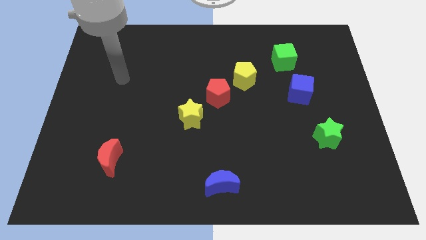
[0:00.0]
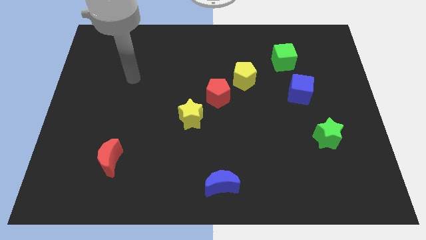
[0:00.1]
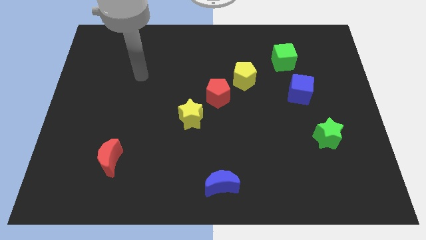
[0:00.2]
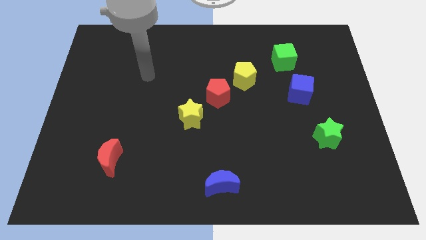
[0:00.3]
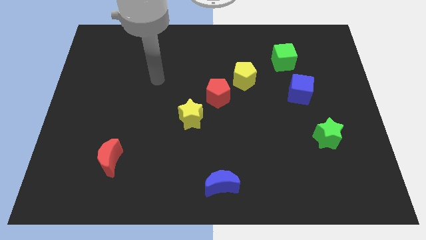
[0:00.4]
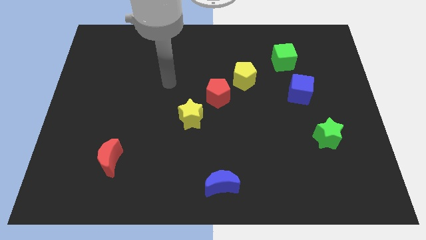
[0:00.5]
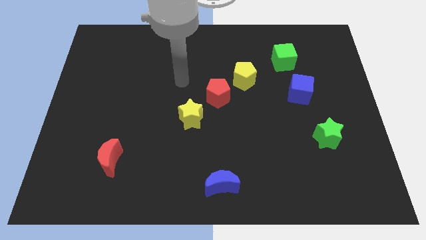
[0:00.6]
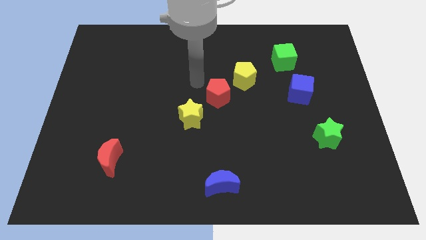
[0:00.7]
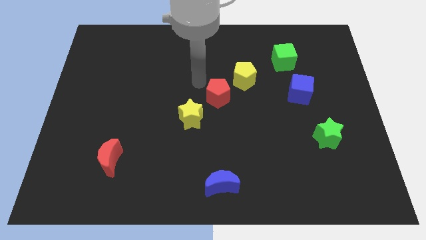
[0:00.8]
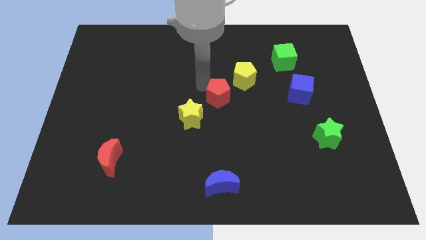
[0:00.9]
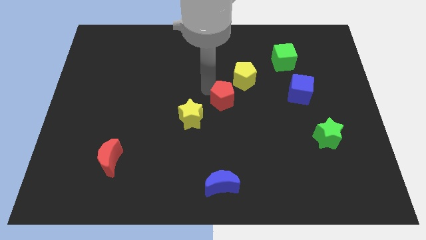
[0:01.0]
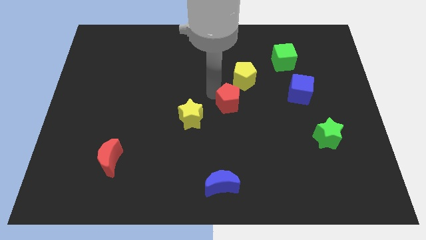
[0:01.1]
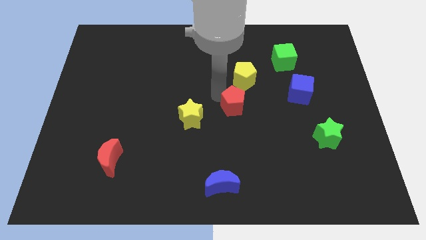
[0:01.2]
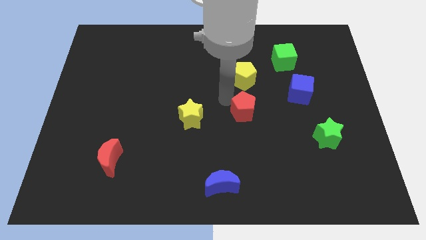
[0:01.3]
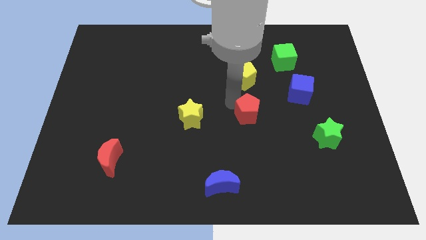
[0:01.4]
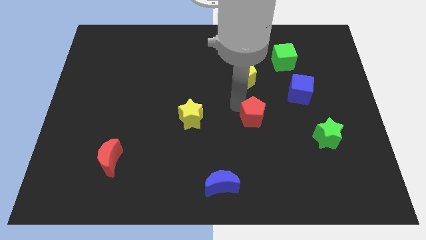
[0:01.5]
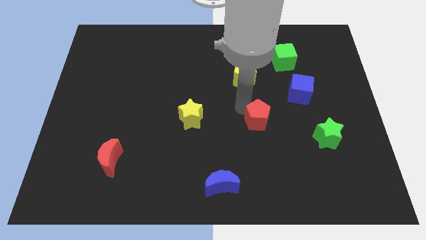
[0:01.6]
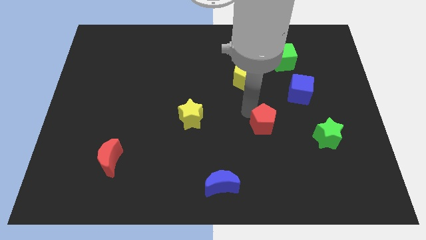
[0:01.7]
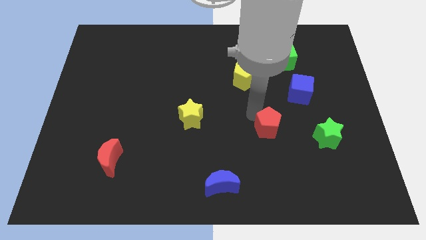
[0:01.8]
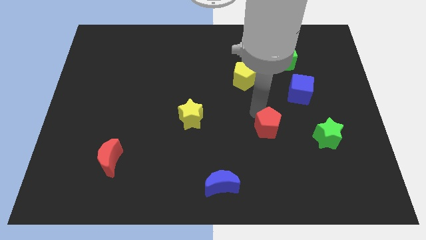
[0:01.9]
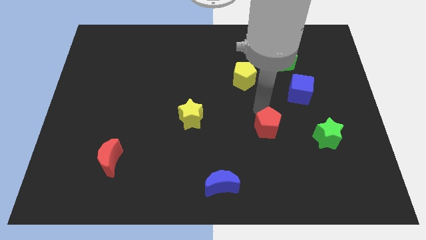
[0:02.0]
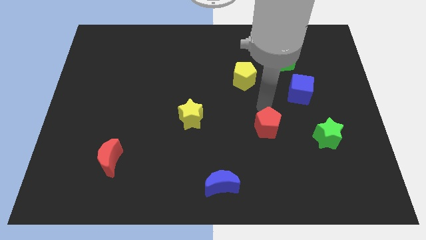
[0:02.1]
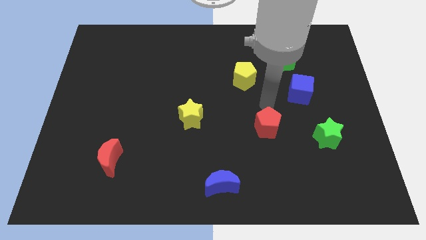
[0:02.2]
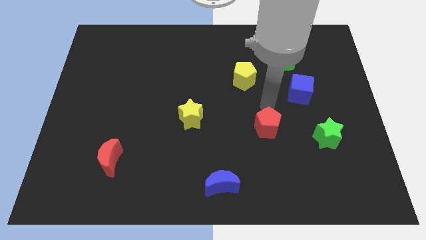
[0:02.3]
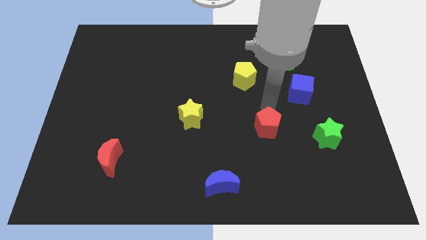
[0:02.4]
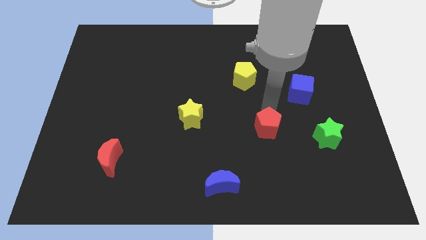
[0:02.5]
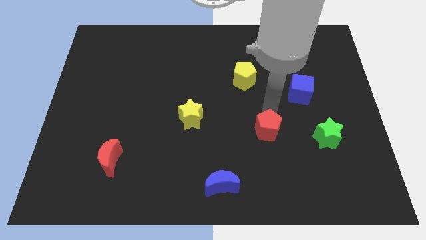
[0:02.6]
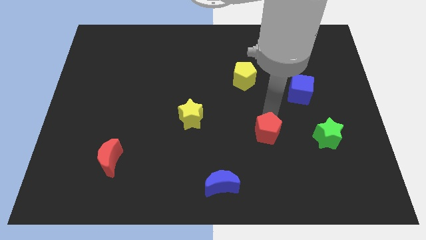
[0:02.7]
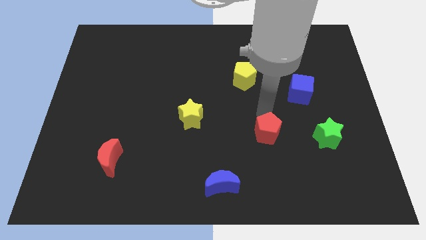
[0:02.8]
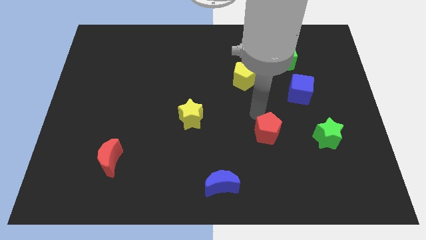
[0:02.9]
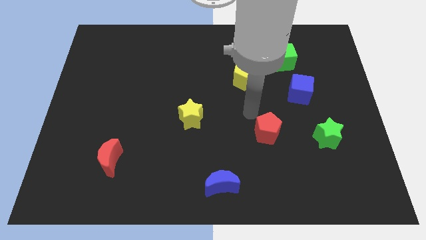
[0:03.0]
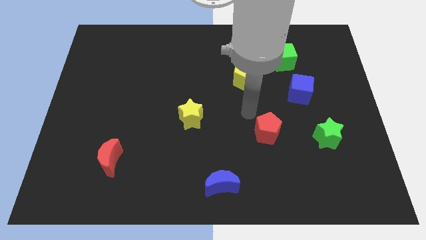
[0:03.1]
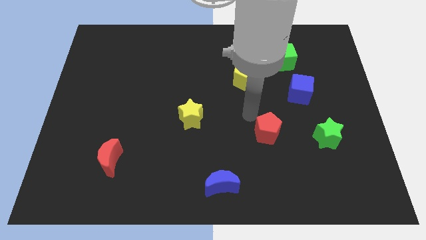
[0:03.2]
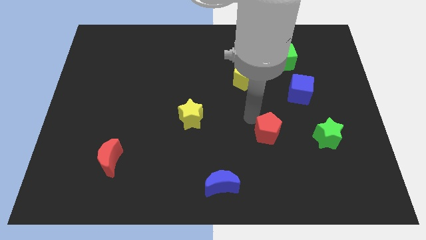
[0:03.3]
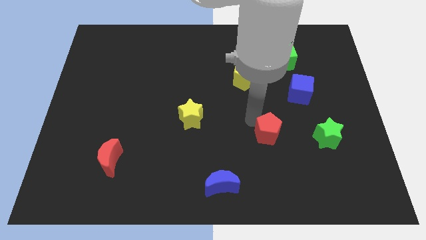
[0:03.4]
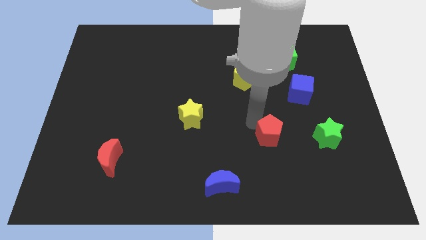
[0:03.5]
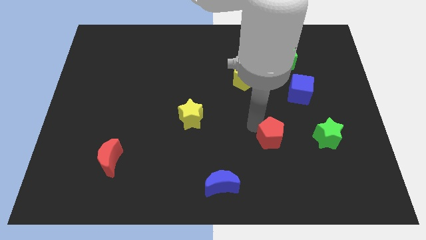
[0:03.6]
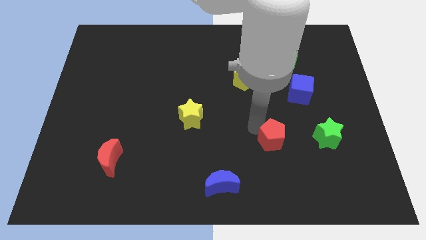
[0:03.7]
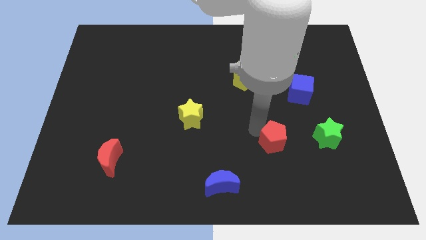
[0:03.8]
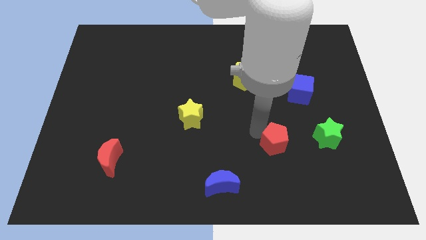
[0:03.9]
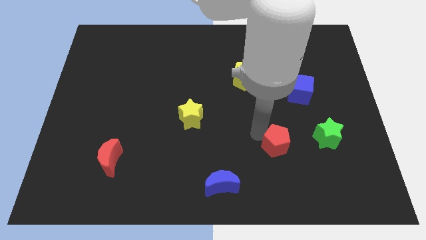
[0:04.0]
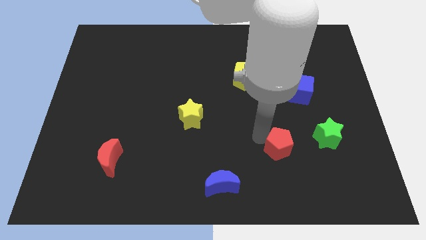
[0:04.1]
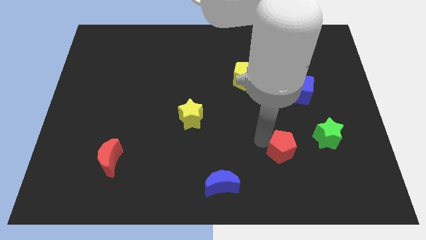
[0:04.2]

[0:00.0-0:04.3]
push the red pentagon down and right

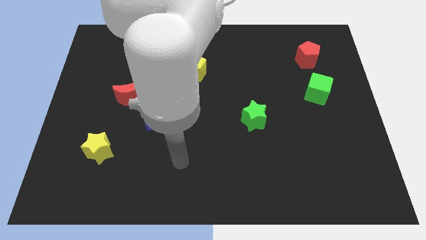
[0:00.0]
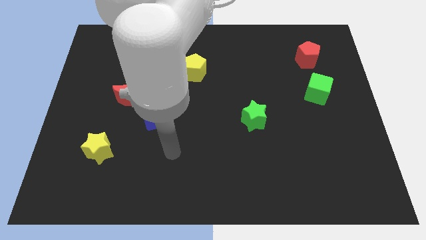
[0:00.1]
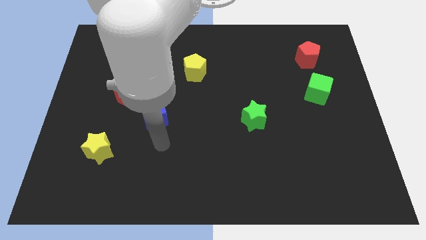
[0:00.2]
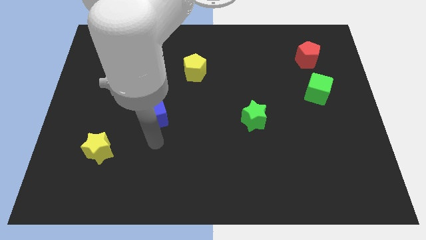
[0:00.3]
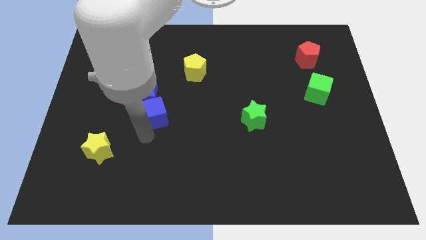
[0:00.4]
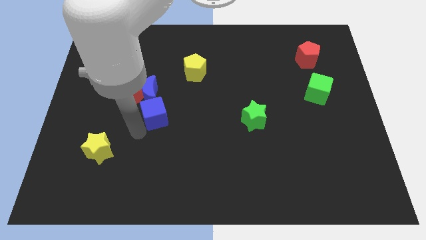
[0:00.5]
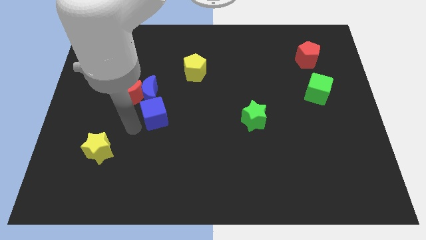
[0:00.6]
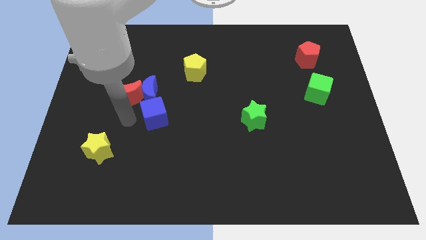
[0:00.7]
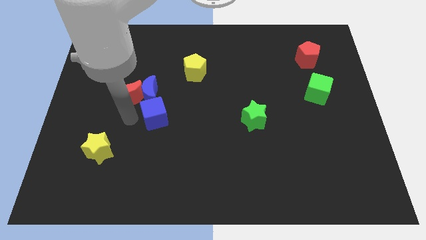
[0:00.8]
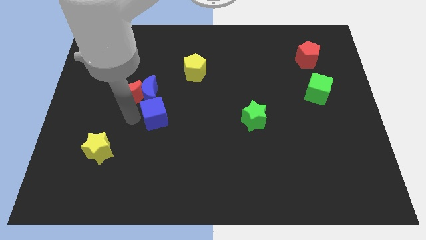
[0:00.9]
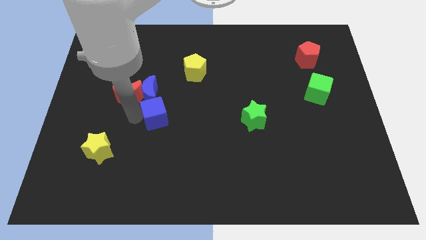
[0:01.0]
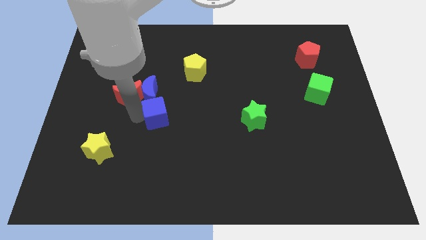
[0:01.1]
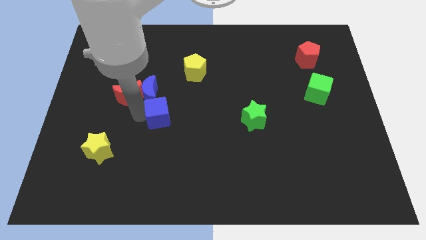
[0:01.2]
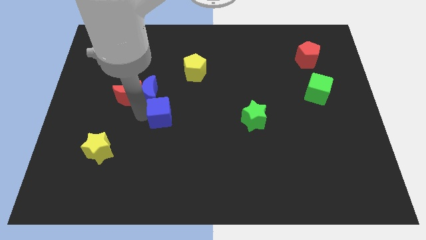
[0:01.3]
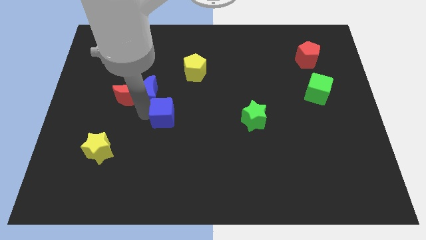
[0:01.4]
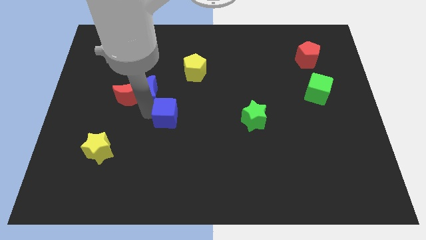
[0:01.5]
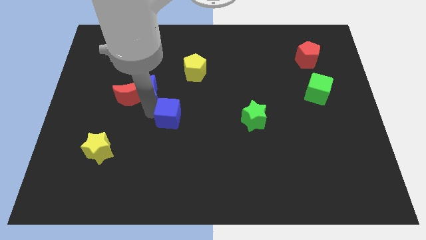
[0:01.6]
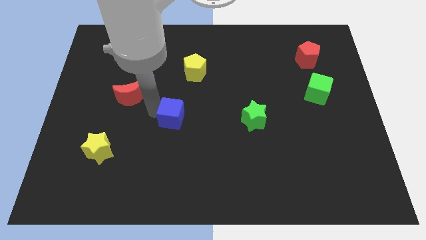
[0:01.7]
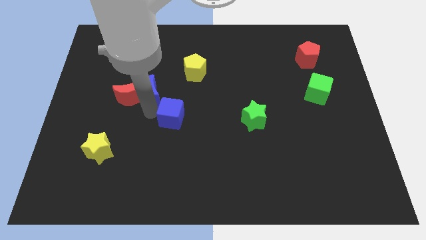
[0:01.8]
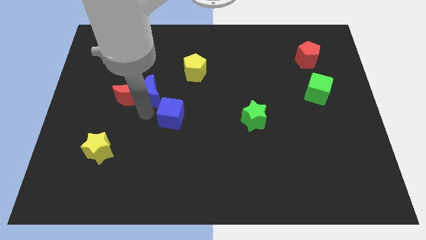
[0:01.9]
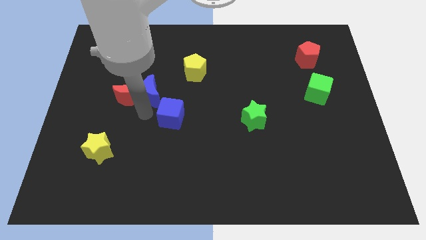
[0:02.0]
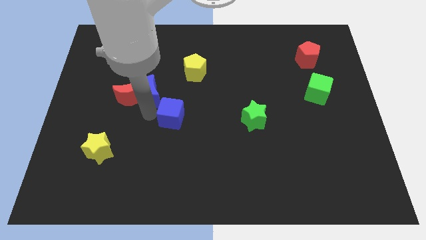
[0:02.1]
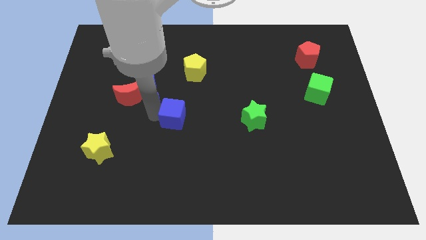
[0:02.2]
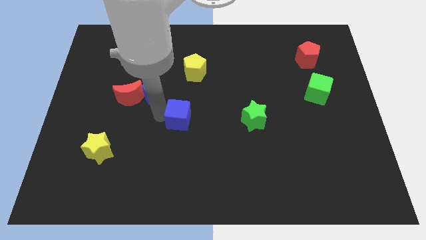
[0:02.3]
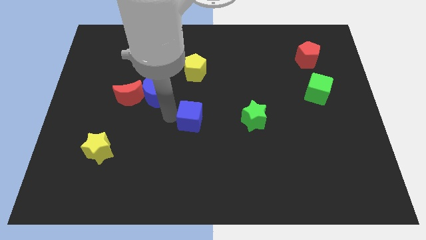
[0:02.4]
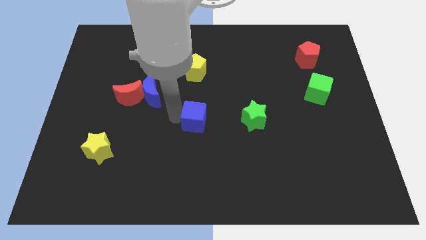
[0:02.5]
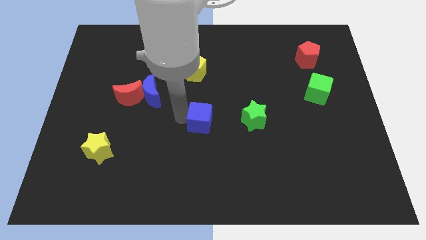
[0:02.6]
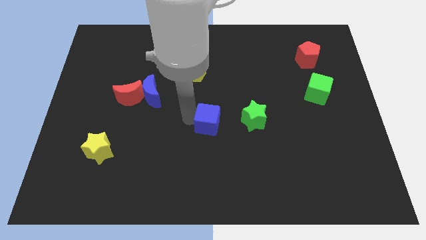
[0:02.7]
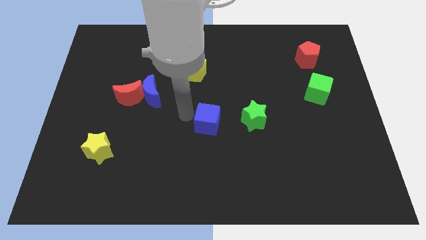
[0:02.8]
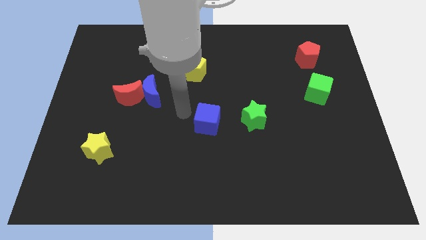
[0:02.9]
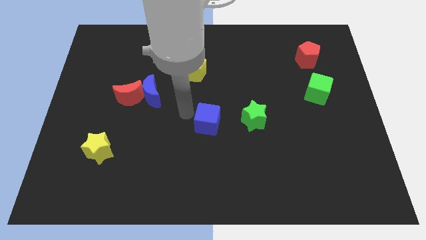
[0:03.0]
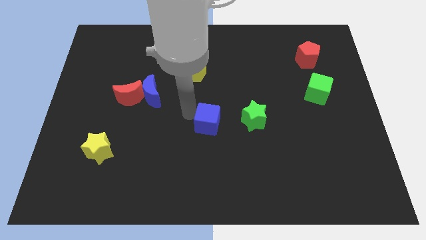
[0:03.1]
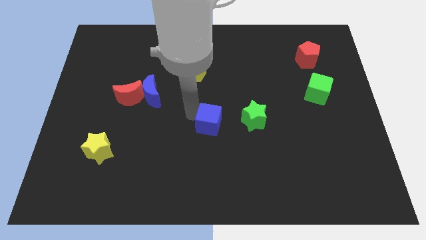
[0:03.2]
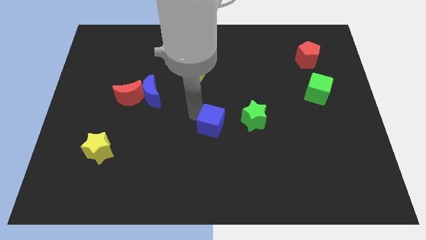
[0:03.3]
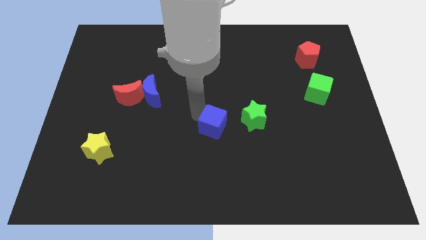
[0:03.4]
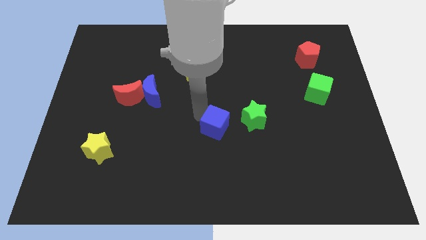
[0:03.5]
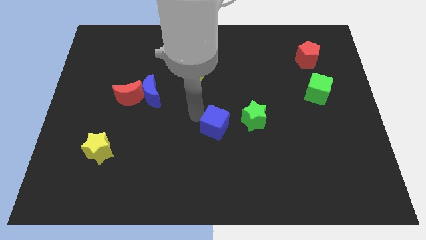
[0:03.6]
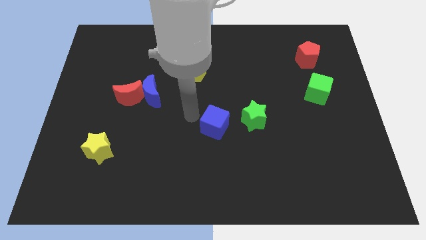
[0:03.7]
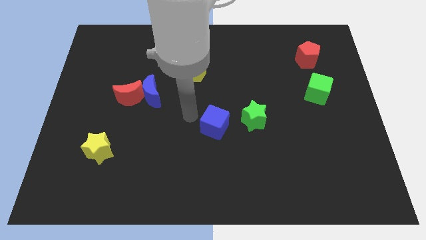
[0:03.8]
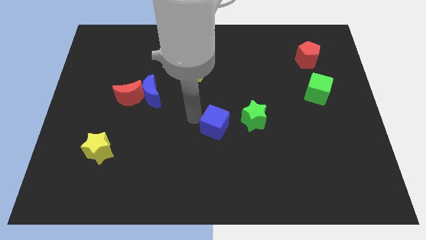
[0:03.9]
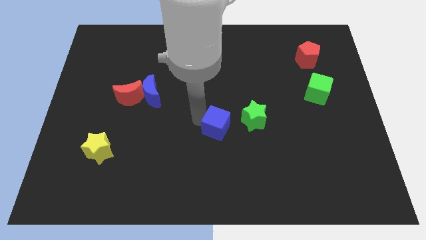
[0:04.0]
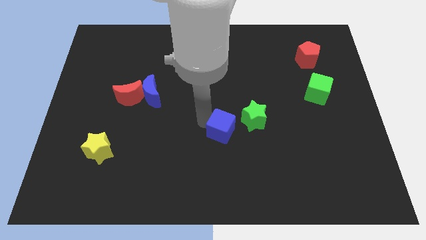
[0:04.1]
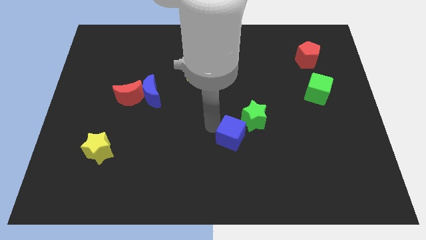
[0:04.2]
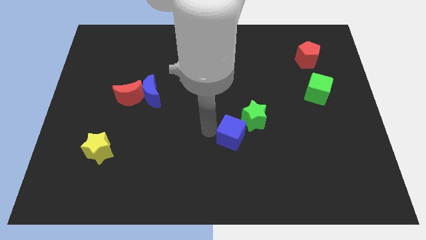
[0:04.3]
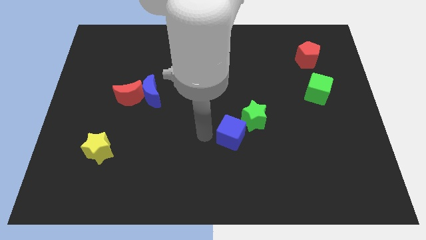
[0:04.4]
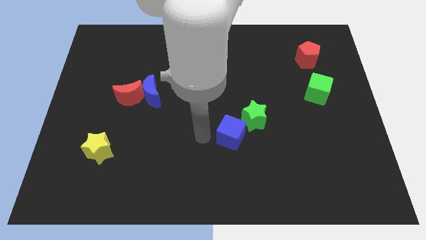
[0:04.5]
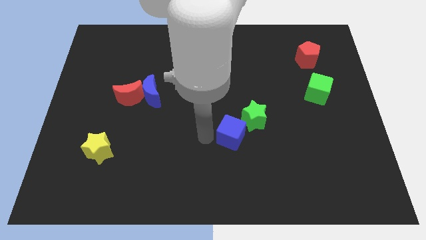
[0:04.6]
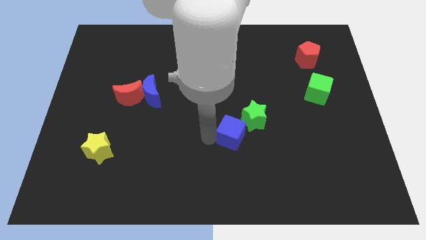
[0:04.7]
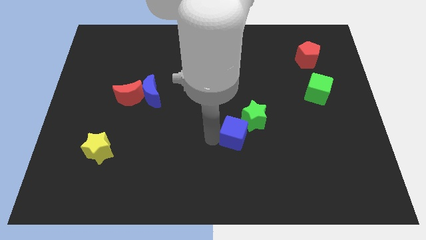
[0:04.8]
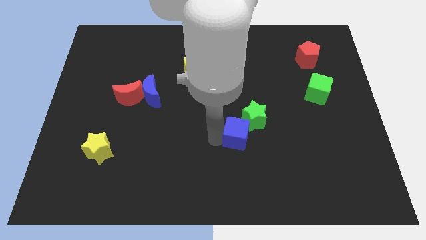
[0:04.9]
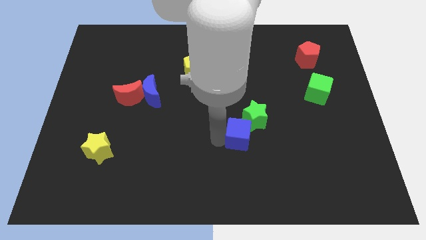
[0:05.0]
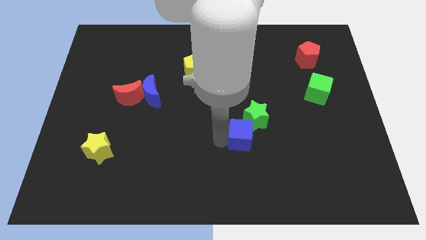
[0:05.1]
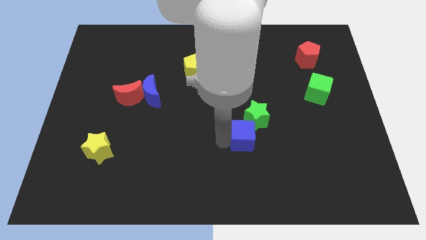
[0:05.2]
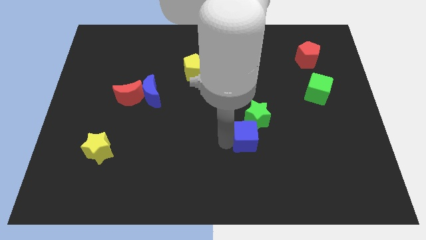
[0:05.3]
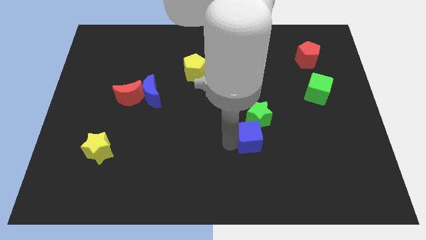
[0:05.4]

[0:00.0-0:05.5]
push the blue cube to the right
